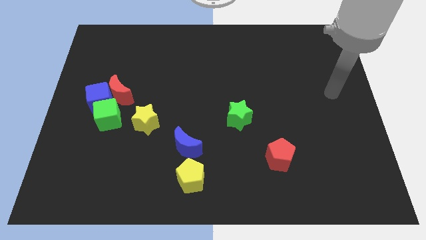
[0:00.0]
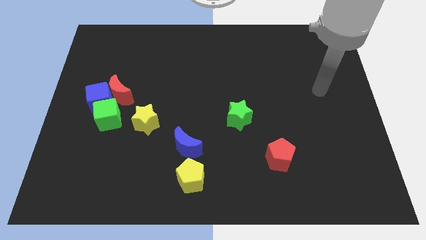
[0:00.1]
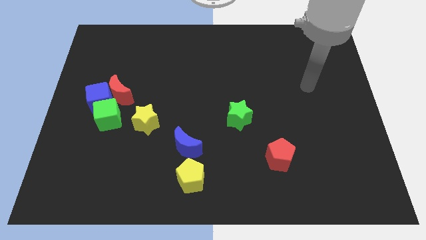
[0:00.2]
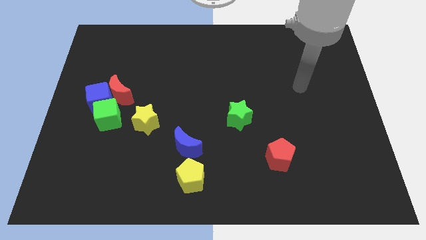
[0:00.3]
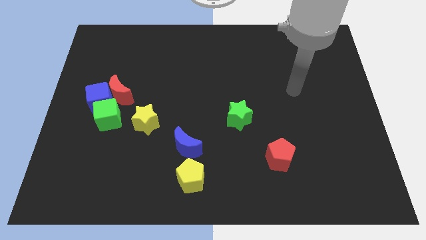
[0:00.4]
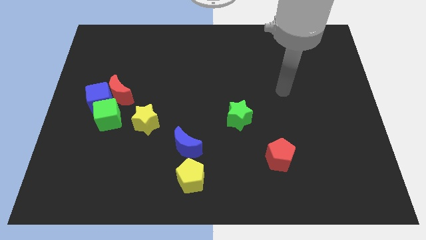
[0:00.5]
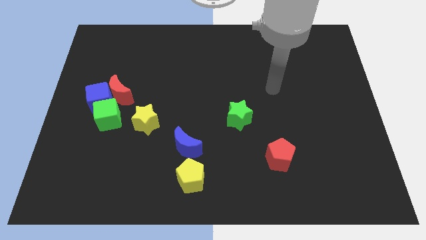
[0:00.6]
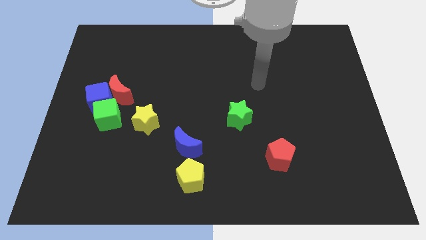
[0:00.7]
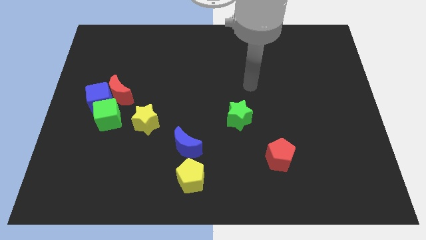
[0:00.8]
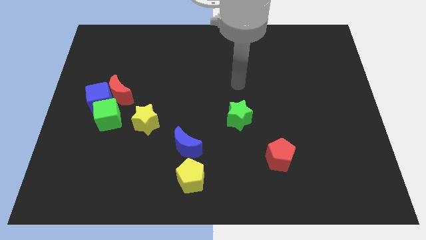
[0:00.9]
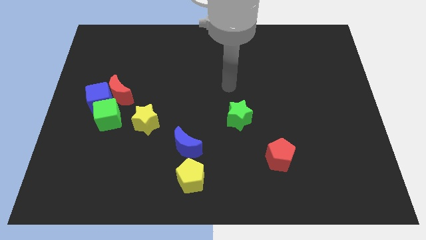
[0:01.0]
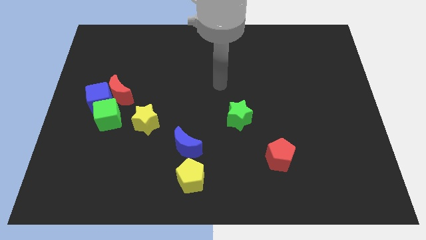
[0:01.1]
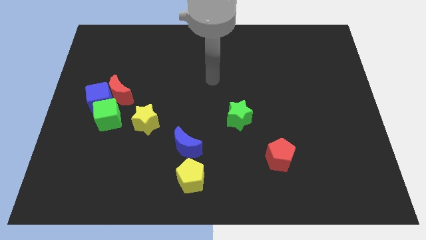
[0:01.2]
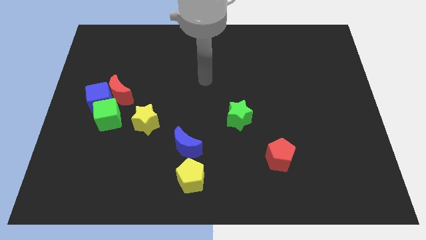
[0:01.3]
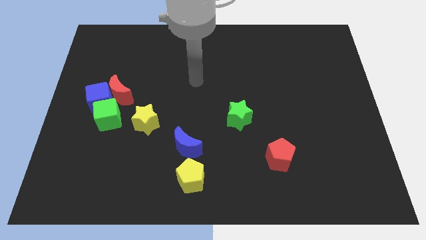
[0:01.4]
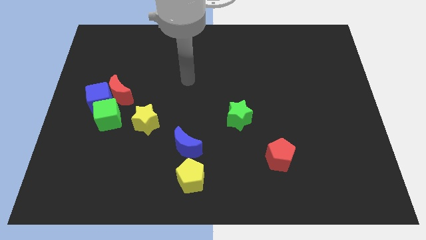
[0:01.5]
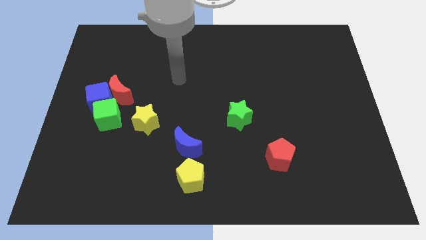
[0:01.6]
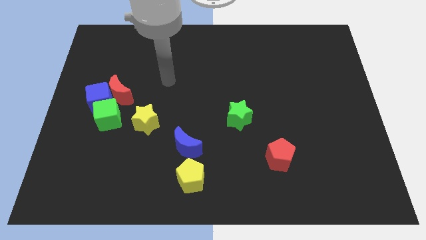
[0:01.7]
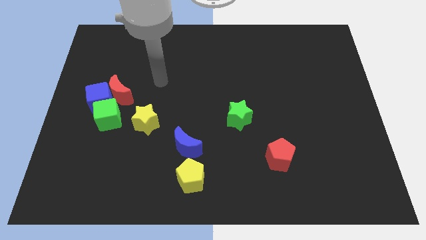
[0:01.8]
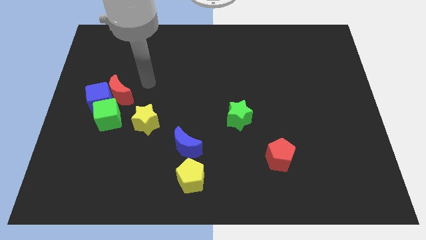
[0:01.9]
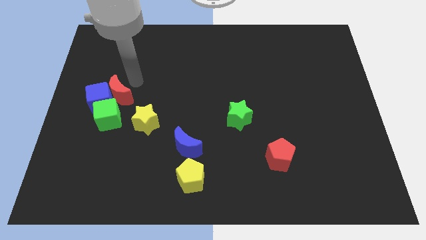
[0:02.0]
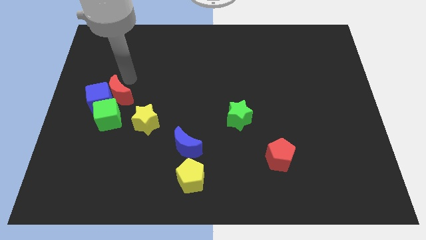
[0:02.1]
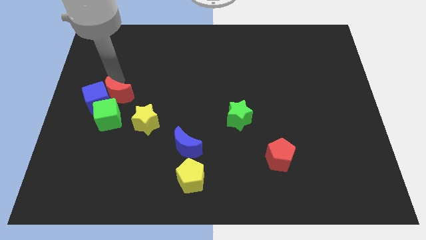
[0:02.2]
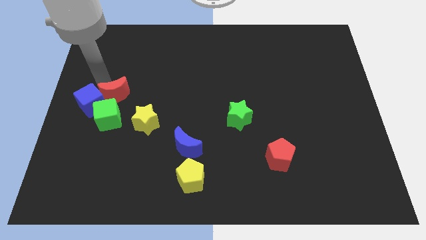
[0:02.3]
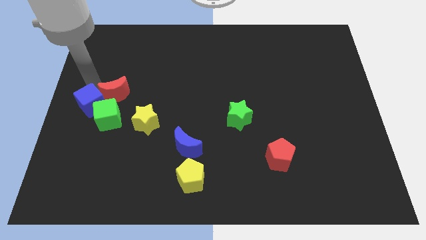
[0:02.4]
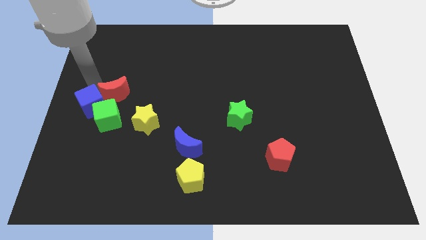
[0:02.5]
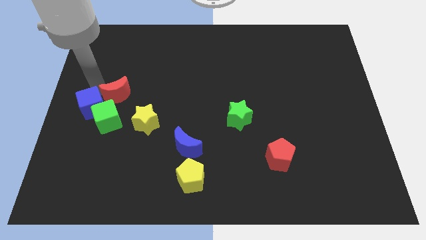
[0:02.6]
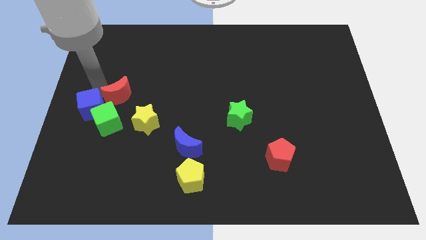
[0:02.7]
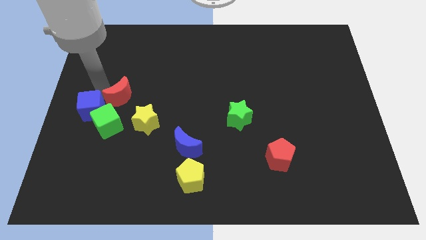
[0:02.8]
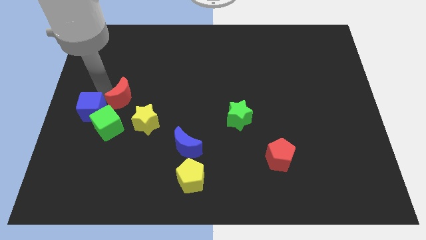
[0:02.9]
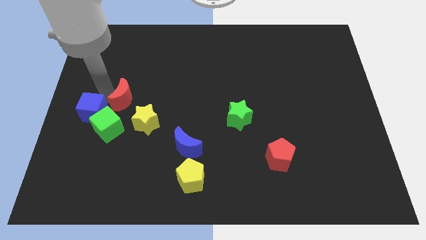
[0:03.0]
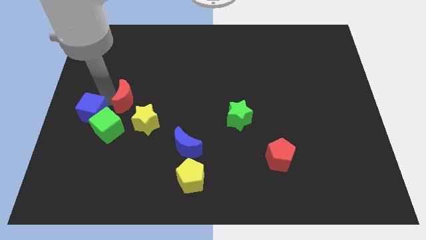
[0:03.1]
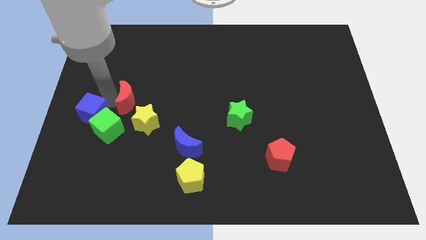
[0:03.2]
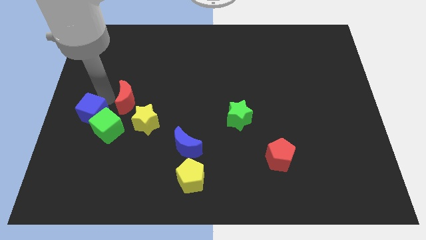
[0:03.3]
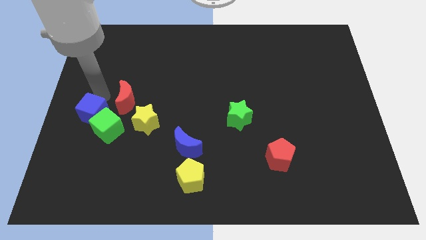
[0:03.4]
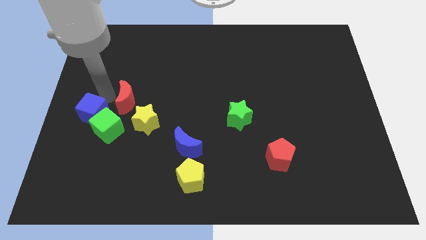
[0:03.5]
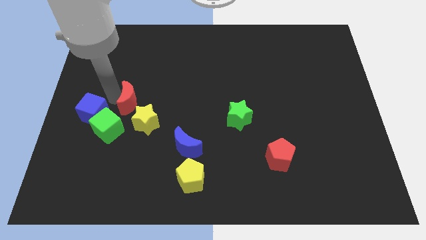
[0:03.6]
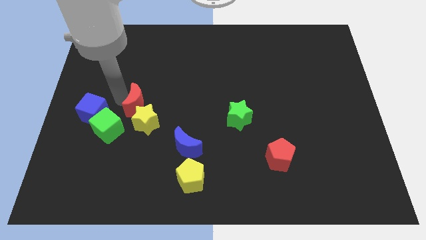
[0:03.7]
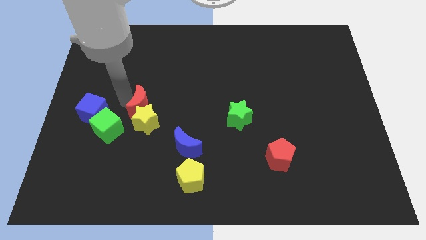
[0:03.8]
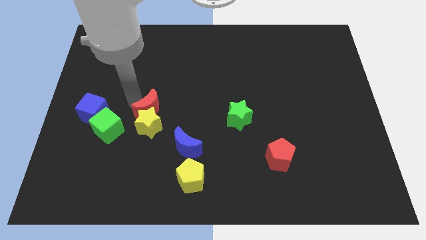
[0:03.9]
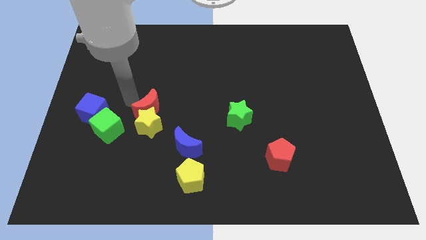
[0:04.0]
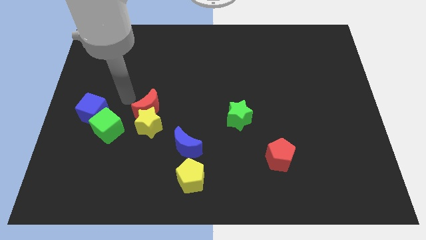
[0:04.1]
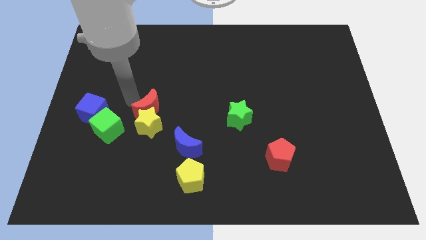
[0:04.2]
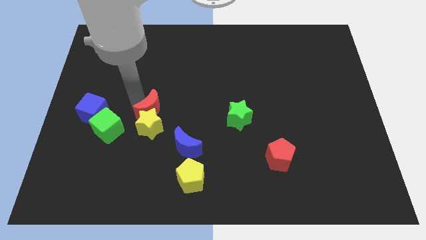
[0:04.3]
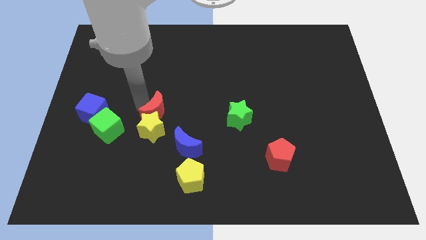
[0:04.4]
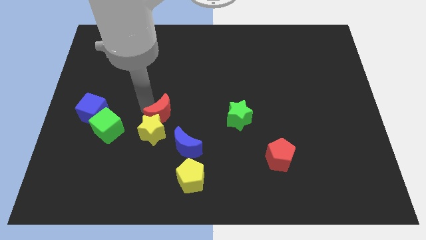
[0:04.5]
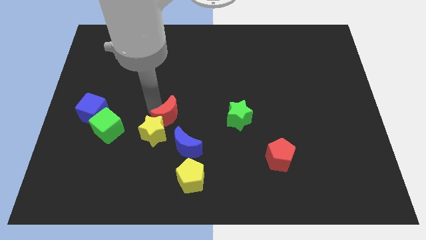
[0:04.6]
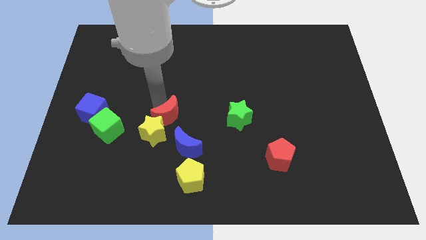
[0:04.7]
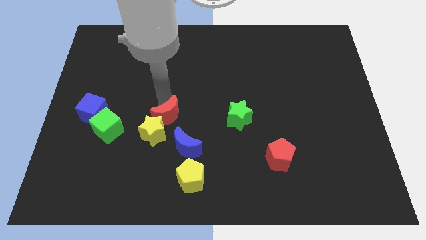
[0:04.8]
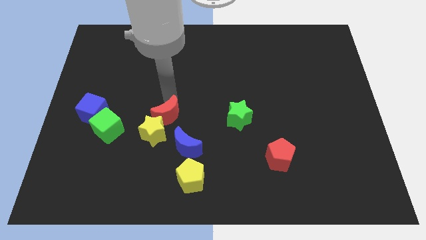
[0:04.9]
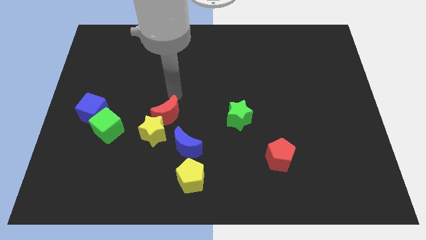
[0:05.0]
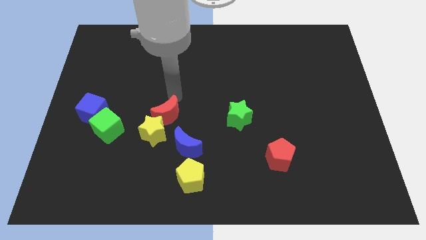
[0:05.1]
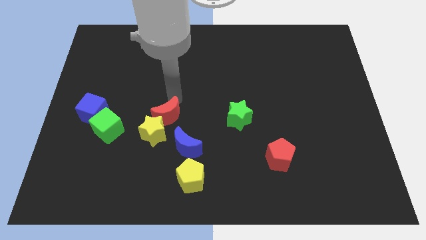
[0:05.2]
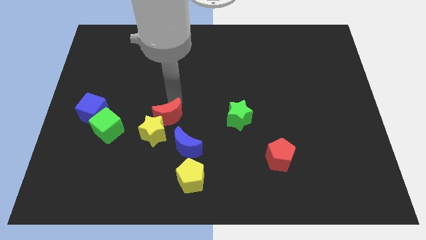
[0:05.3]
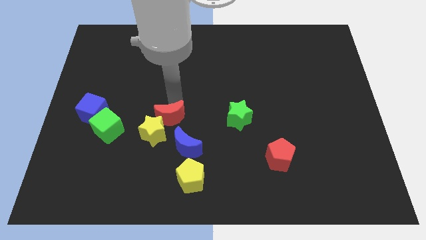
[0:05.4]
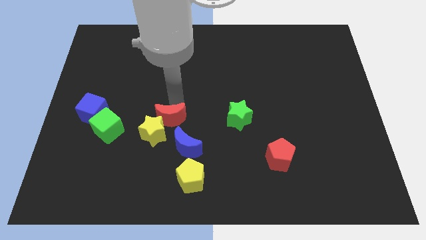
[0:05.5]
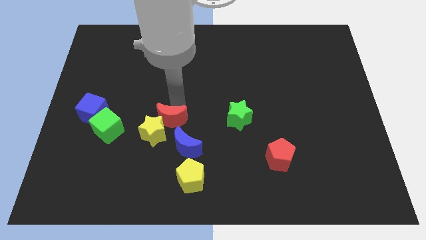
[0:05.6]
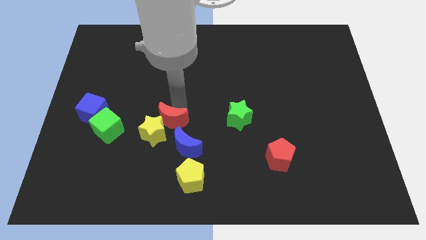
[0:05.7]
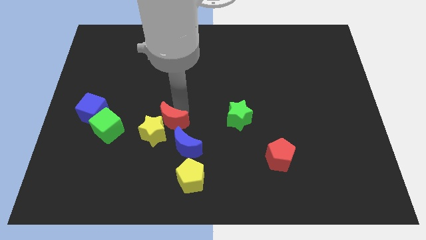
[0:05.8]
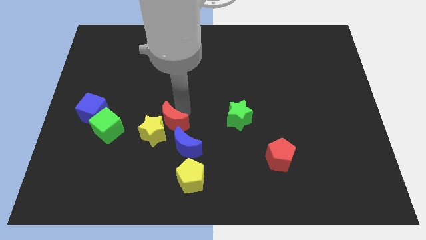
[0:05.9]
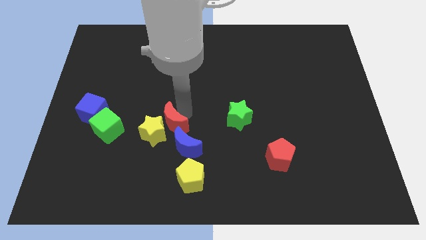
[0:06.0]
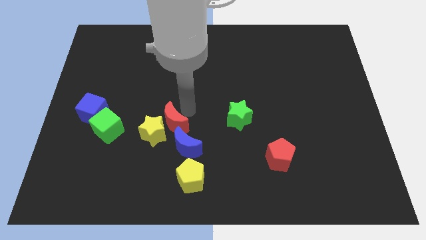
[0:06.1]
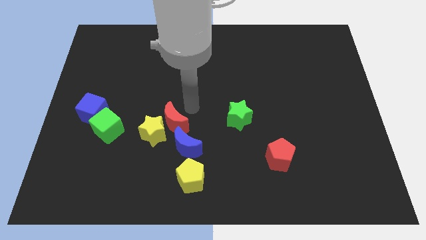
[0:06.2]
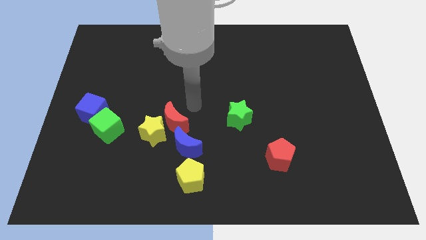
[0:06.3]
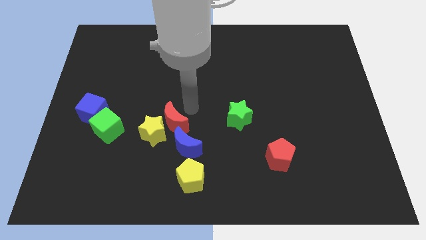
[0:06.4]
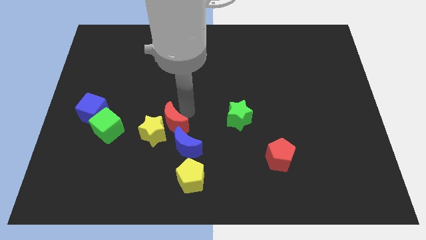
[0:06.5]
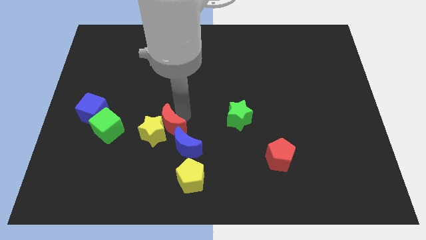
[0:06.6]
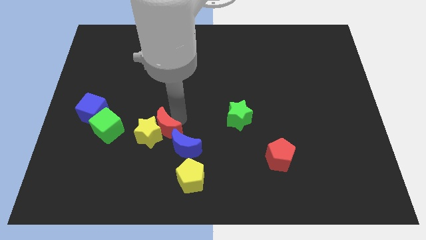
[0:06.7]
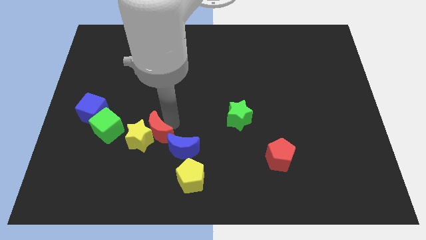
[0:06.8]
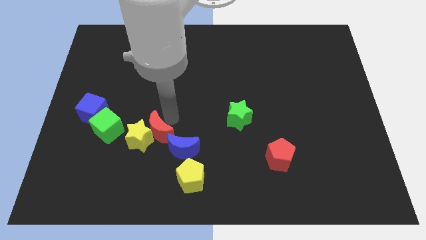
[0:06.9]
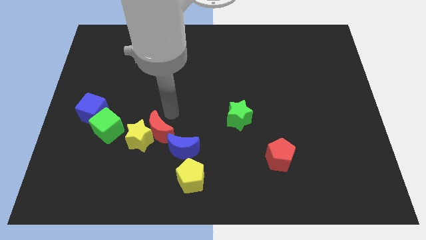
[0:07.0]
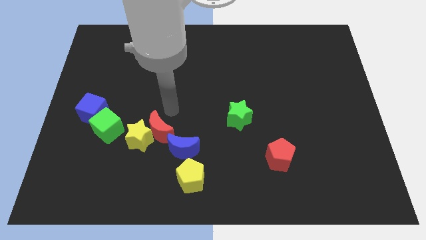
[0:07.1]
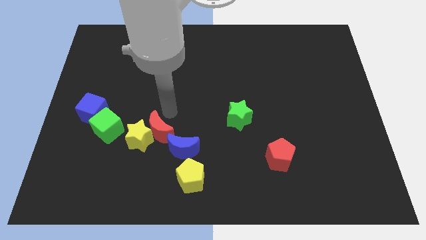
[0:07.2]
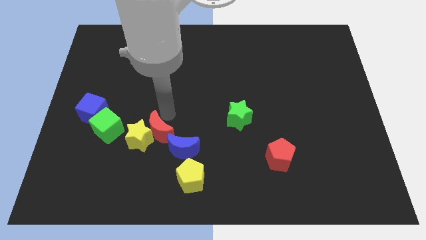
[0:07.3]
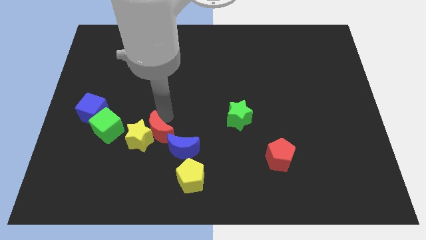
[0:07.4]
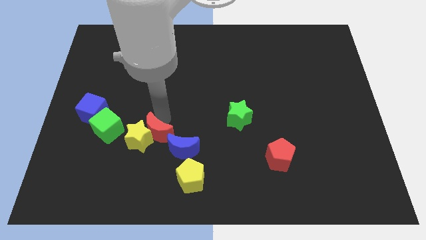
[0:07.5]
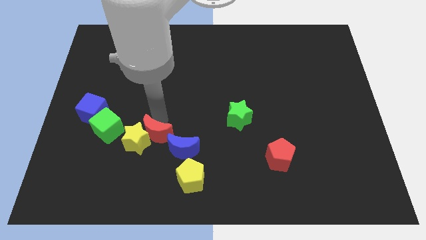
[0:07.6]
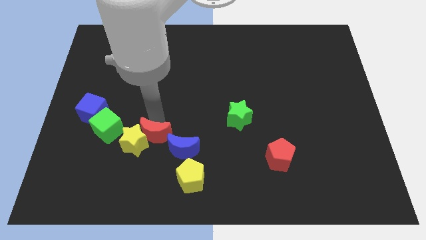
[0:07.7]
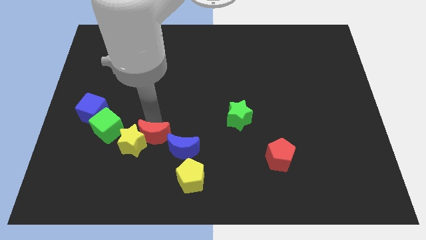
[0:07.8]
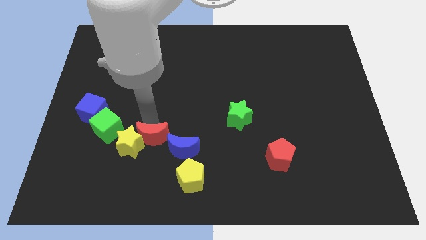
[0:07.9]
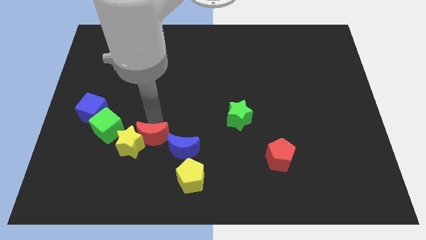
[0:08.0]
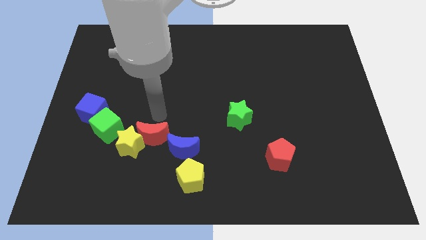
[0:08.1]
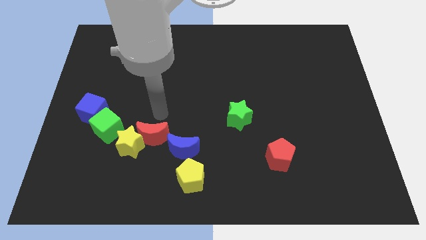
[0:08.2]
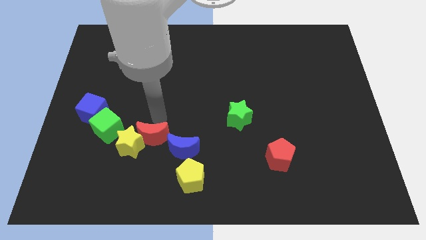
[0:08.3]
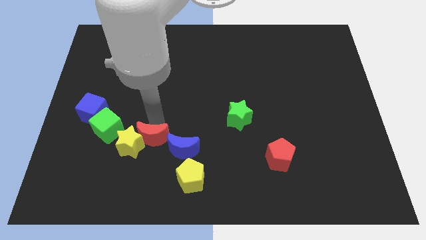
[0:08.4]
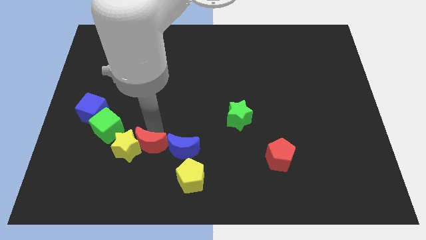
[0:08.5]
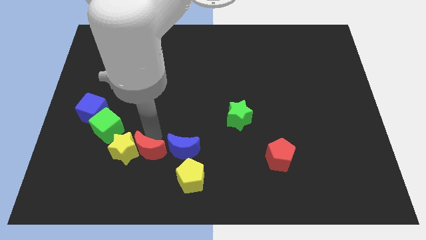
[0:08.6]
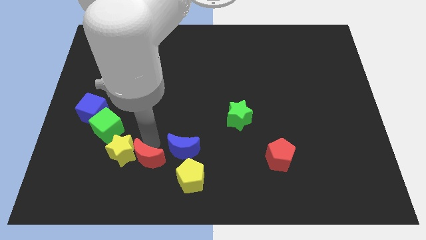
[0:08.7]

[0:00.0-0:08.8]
put the red moon left of the yellow pentagon
